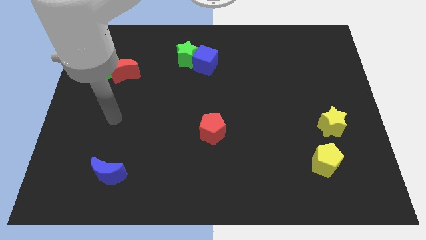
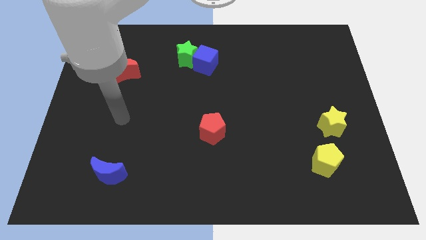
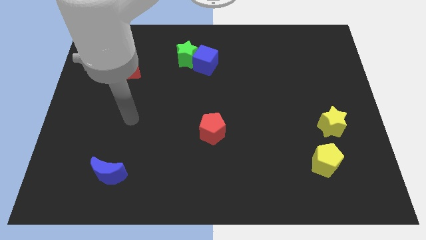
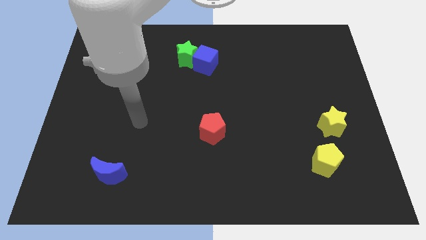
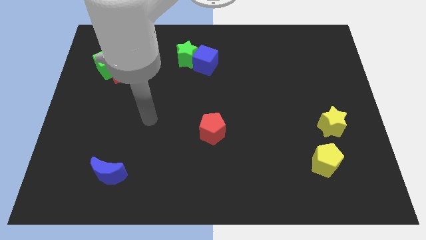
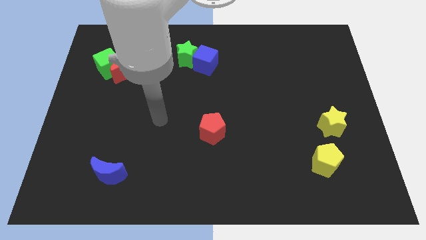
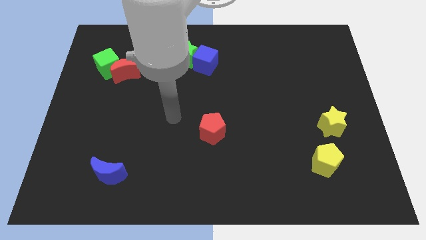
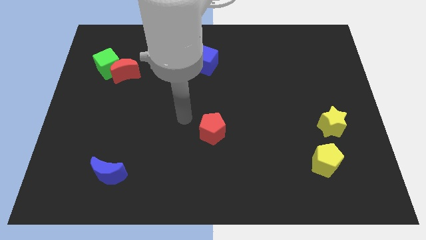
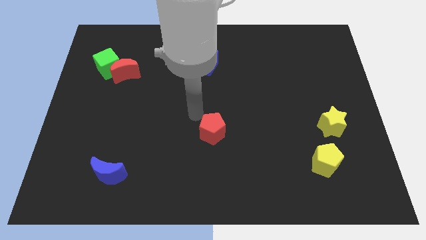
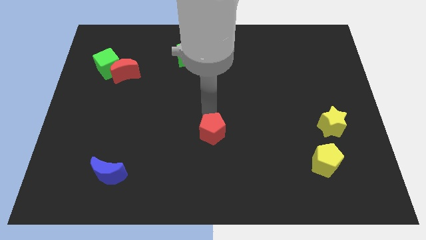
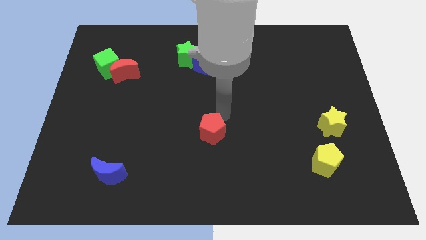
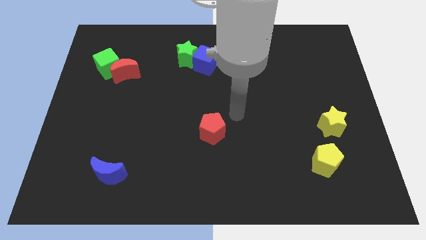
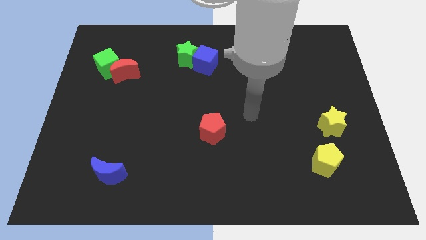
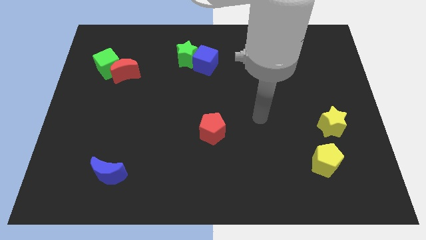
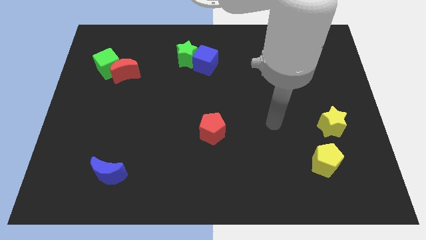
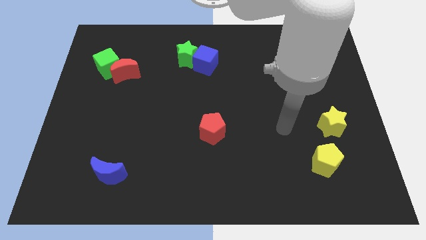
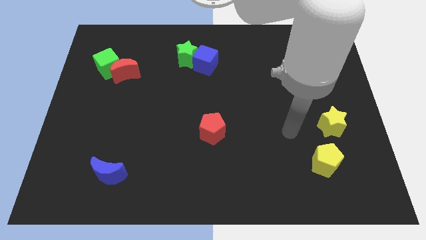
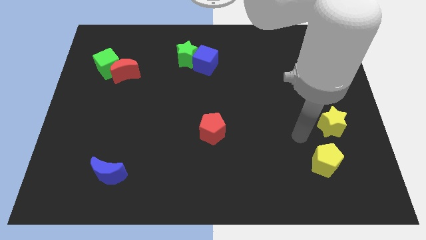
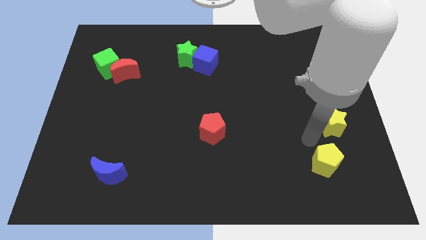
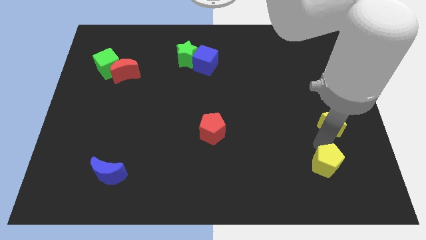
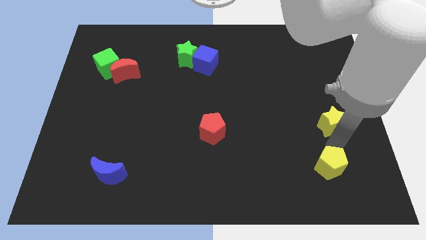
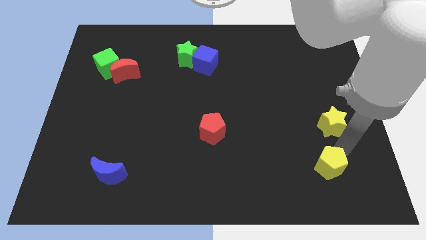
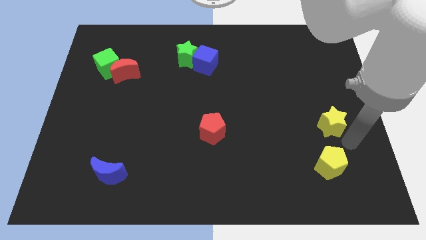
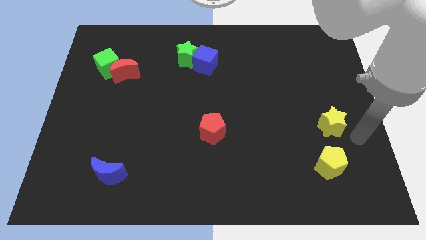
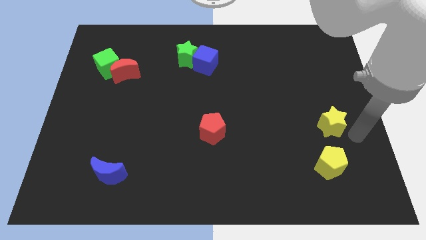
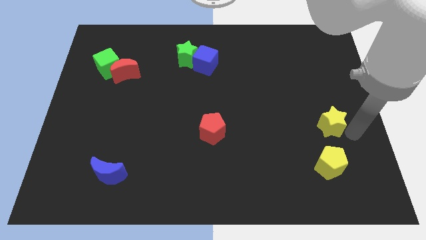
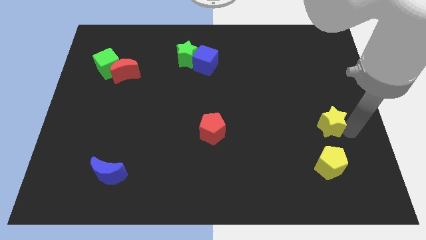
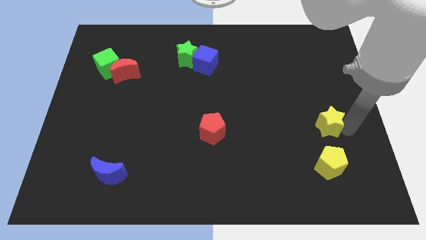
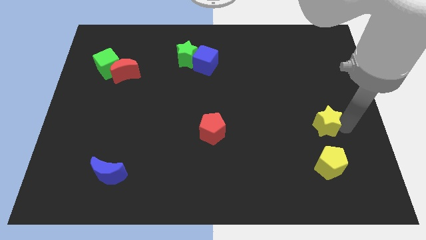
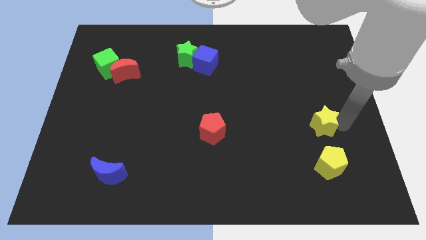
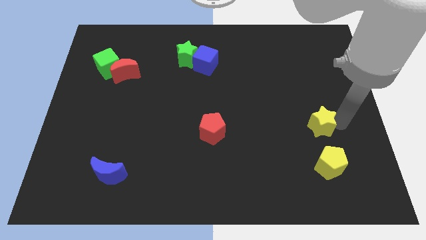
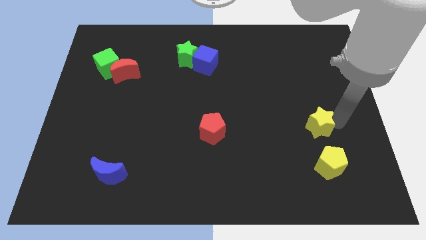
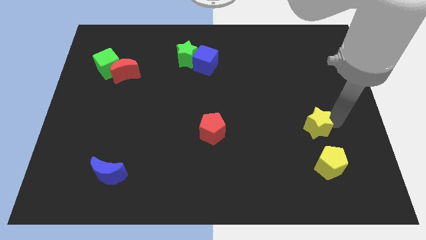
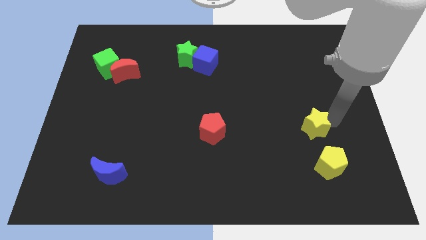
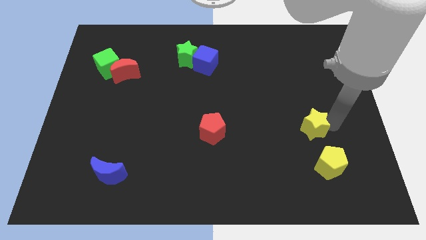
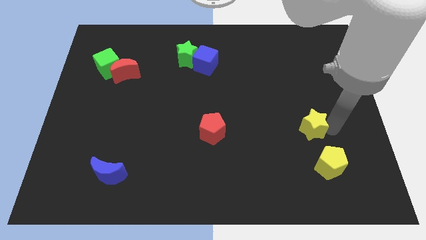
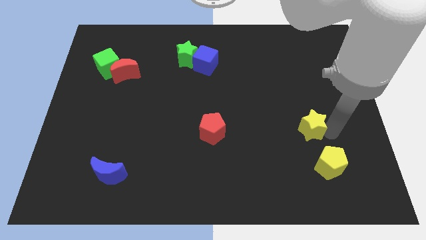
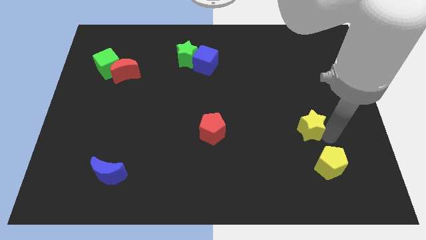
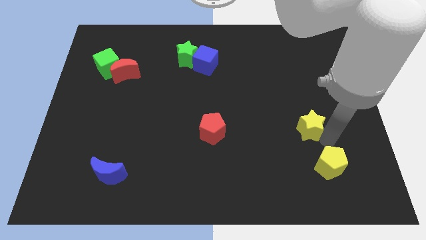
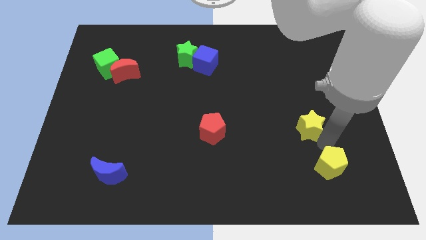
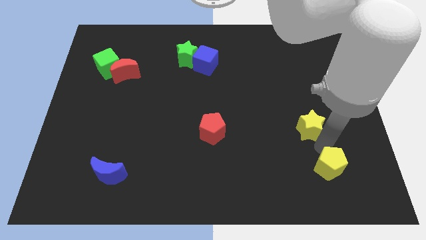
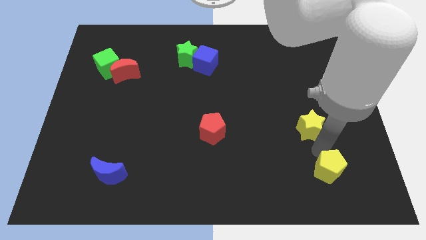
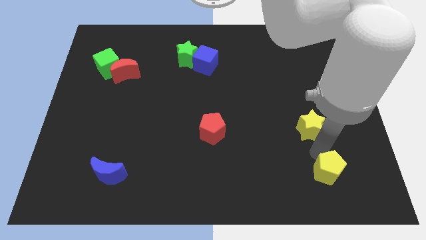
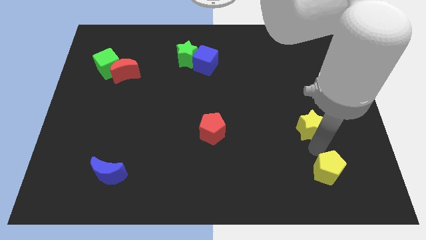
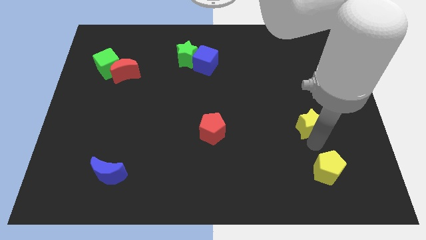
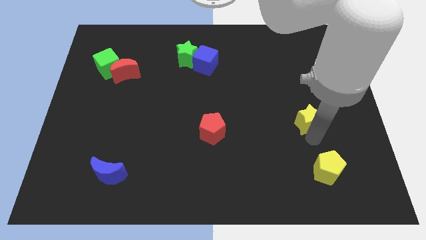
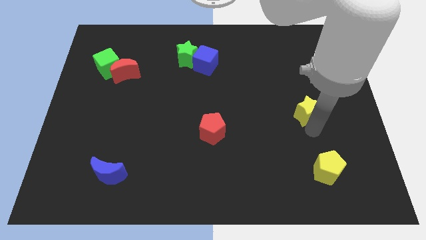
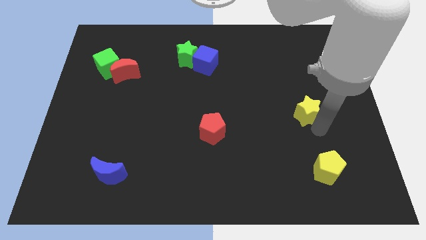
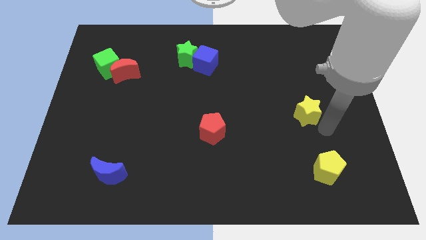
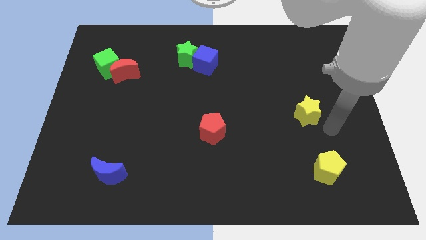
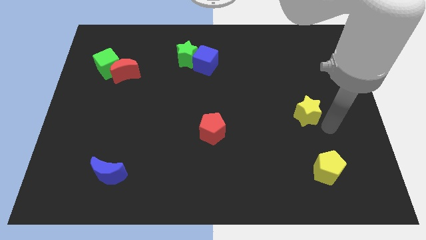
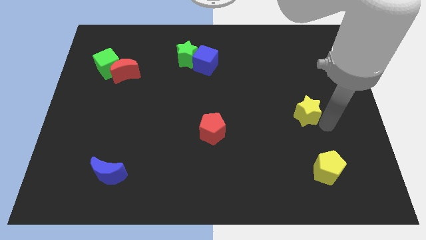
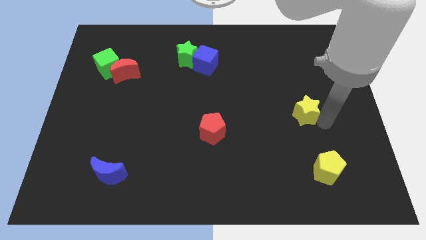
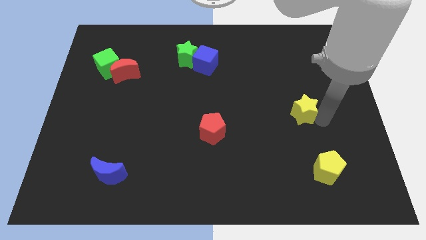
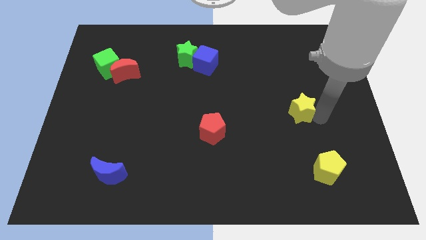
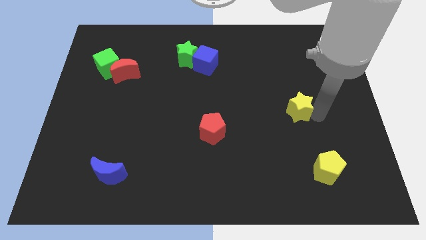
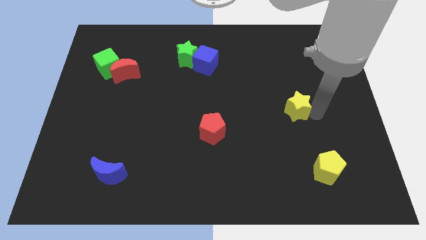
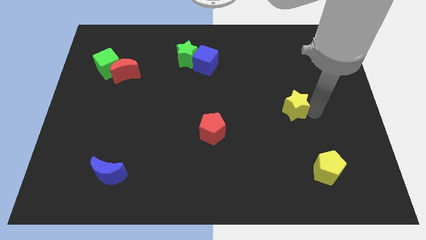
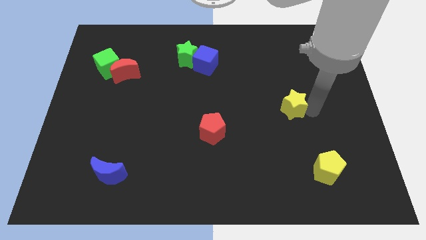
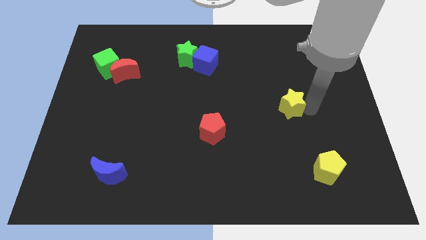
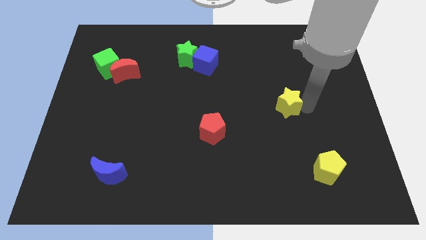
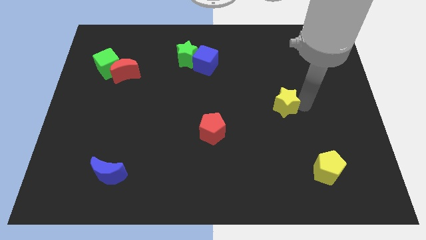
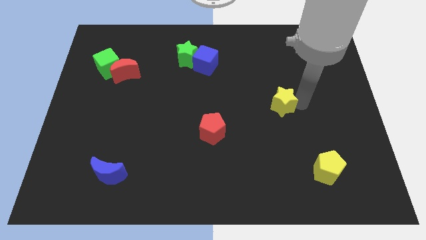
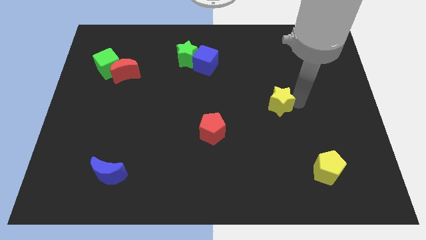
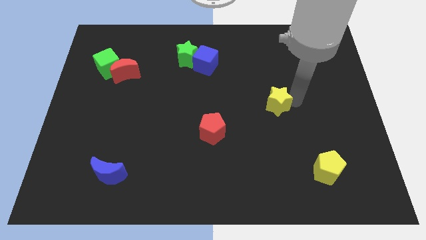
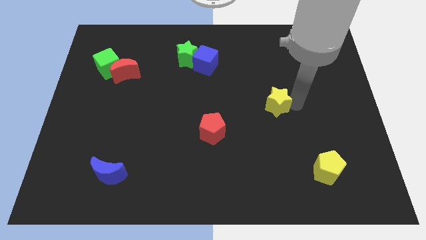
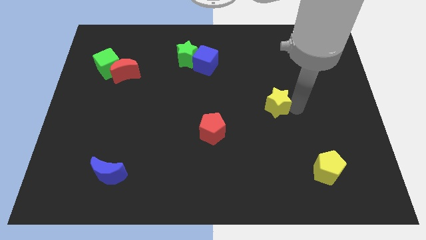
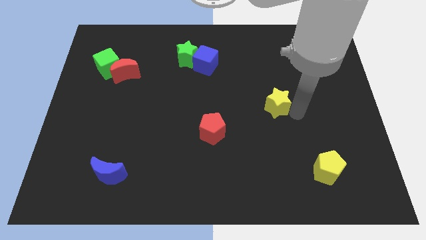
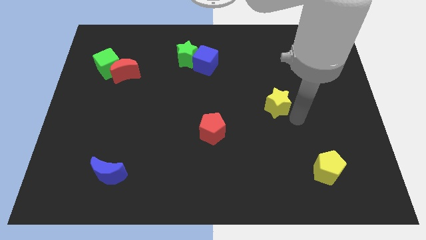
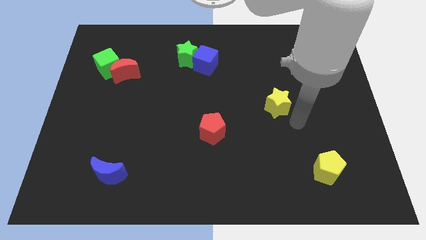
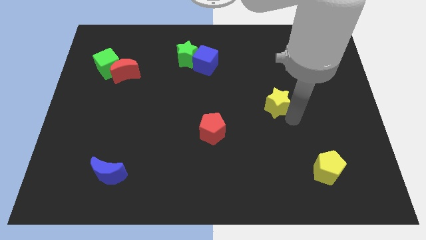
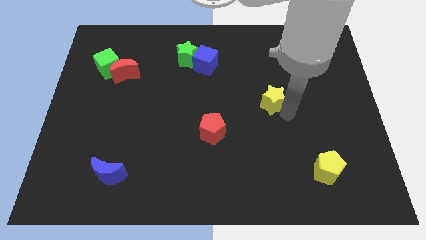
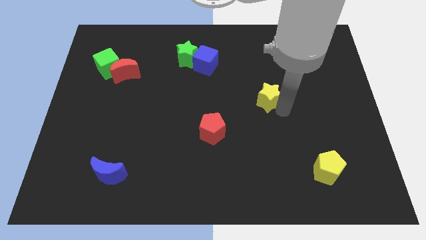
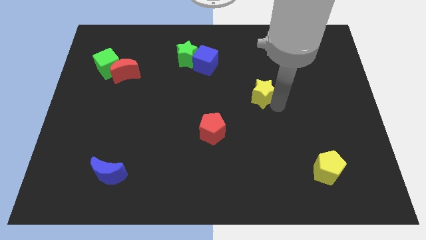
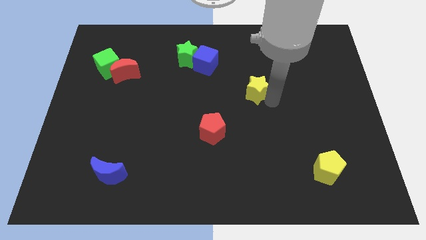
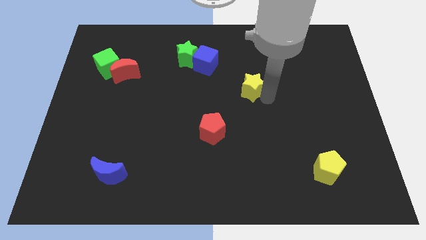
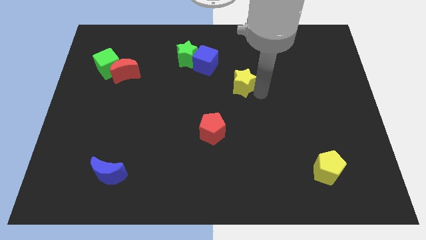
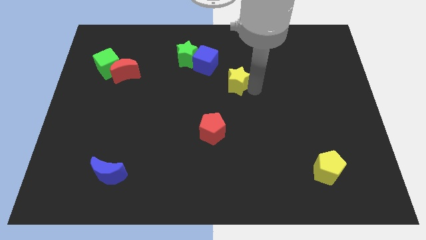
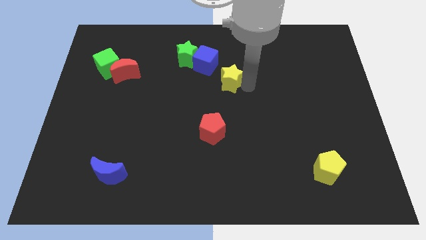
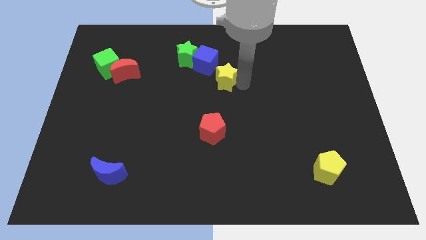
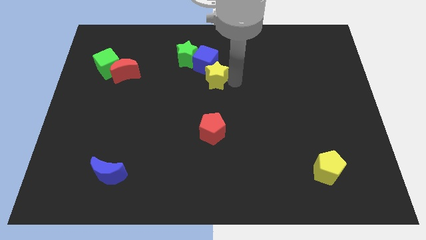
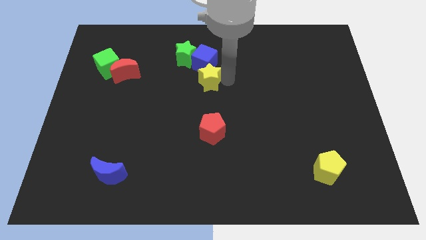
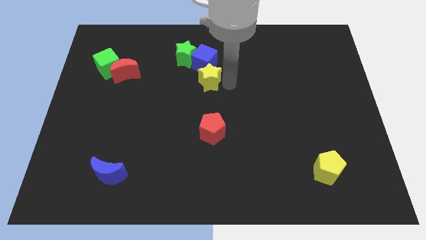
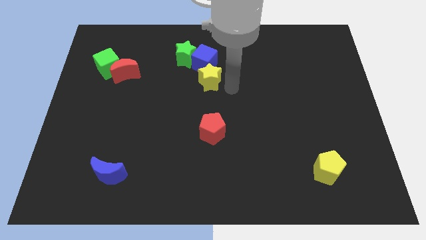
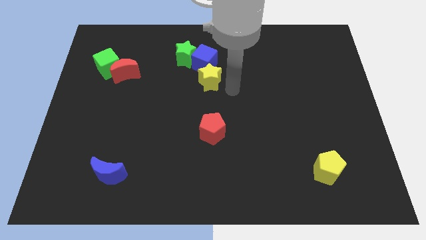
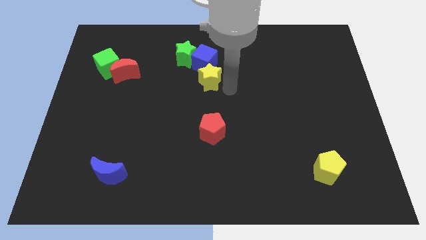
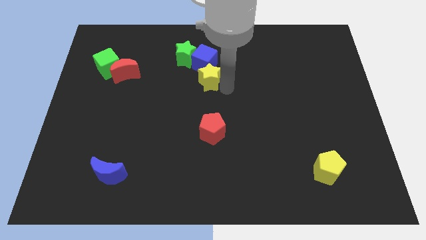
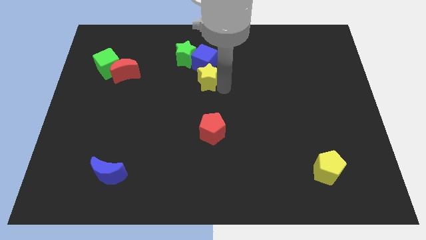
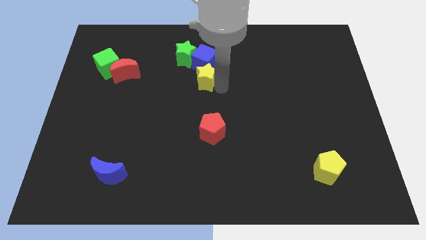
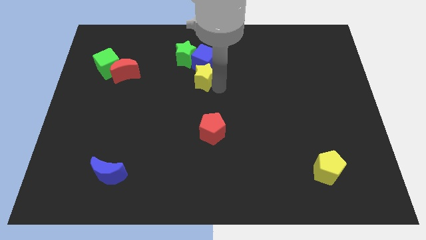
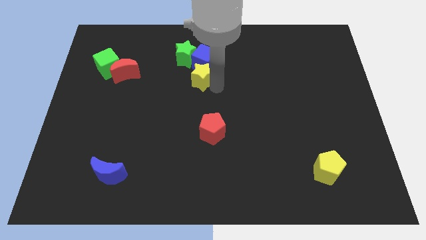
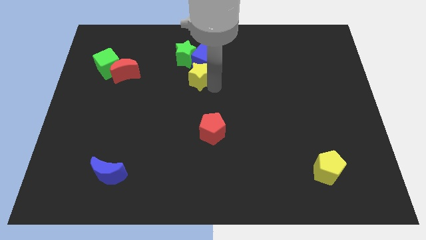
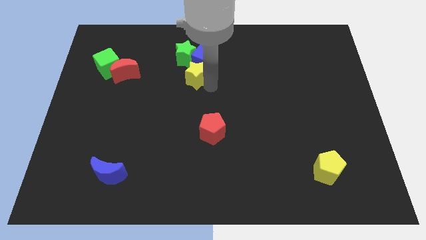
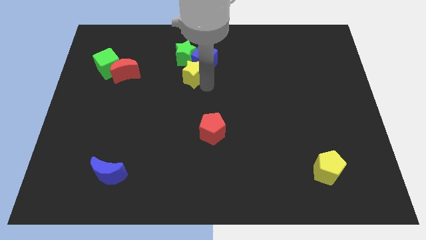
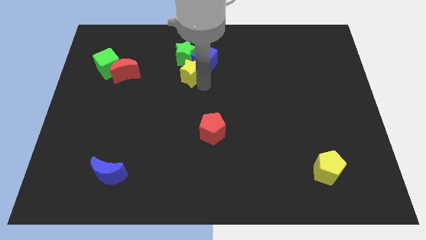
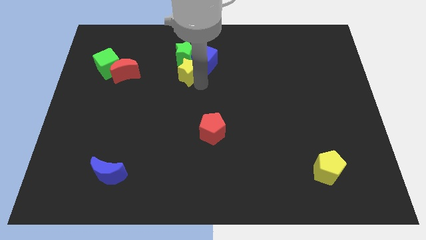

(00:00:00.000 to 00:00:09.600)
put the yellow star next to the green star
